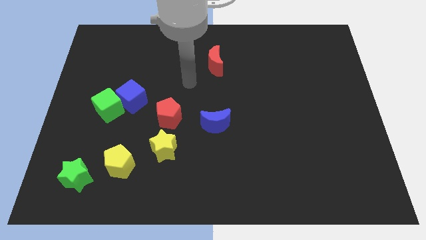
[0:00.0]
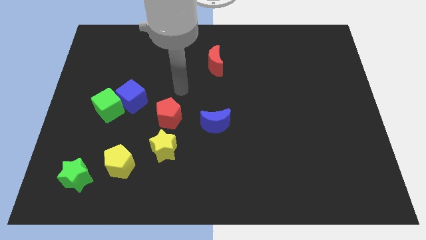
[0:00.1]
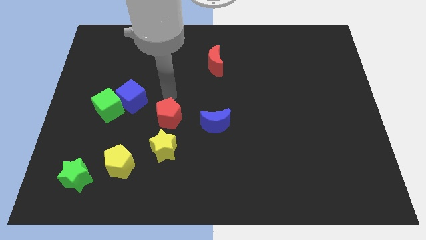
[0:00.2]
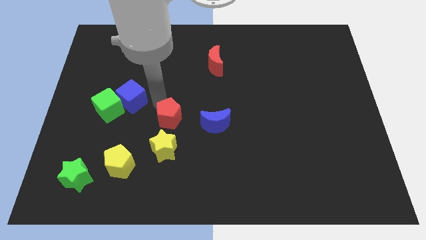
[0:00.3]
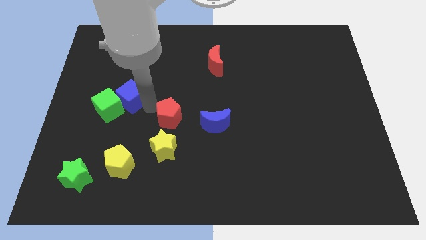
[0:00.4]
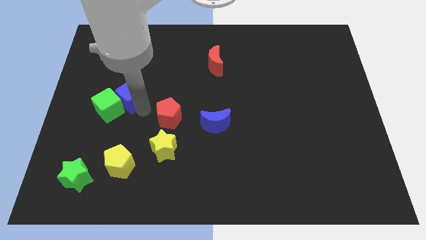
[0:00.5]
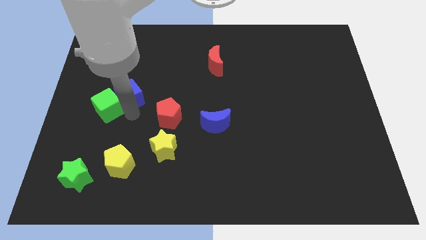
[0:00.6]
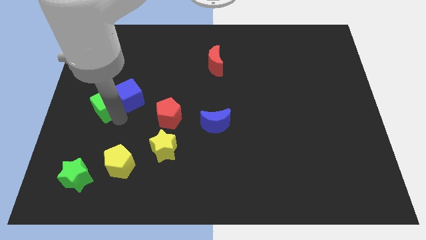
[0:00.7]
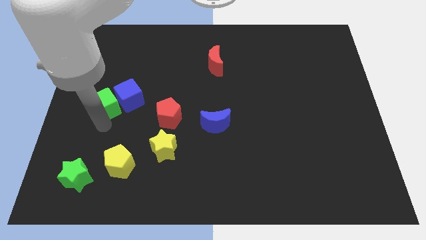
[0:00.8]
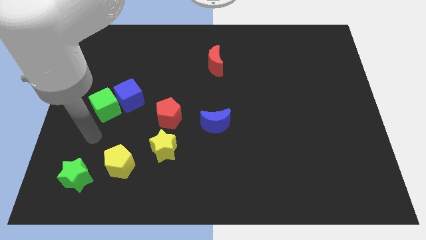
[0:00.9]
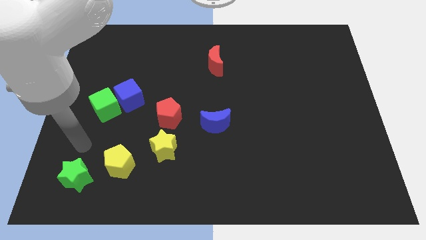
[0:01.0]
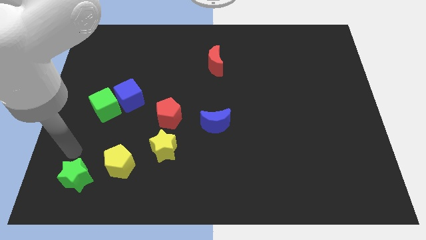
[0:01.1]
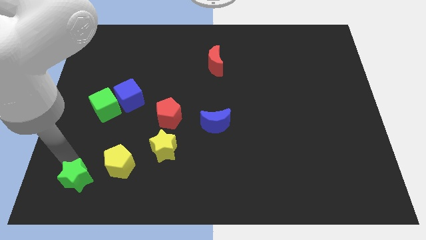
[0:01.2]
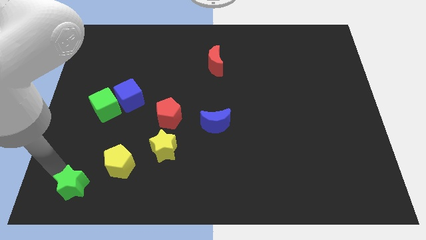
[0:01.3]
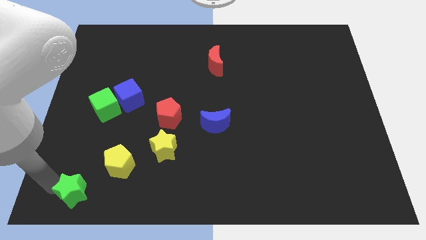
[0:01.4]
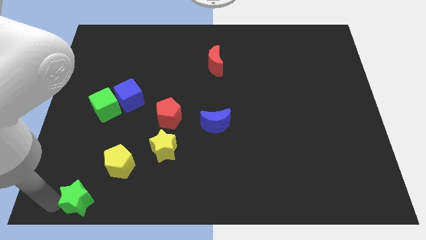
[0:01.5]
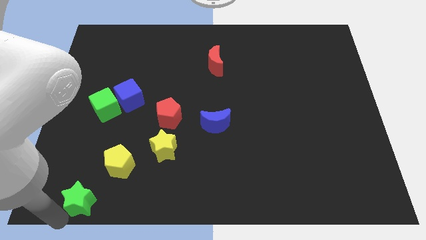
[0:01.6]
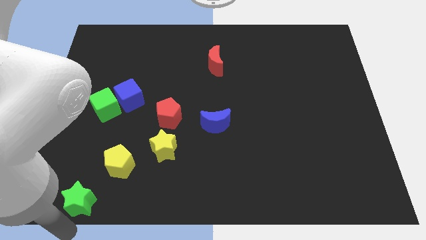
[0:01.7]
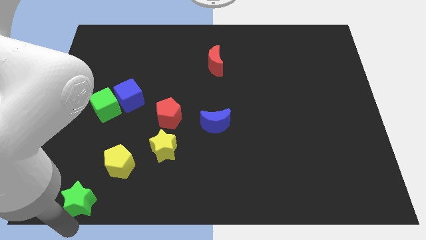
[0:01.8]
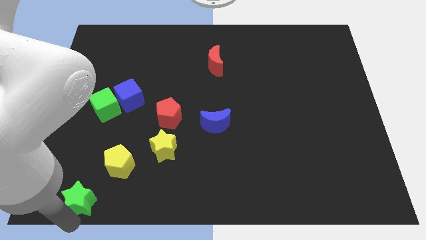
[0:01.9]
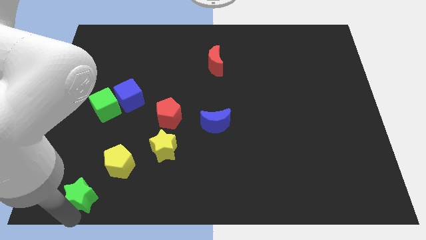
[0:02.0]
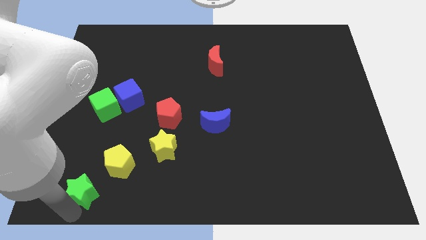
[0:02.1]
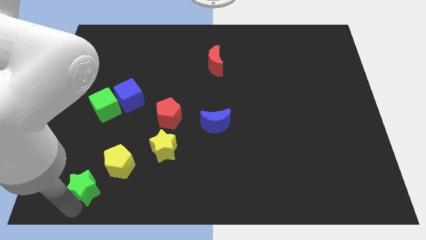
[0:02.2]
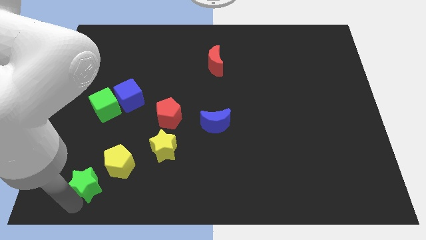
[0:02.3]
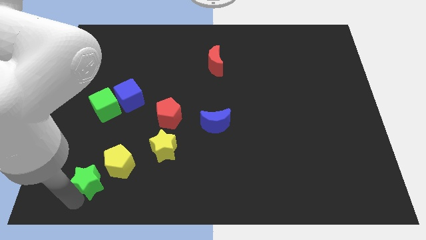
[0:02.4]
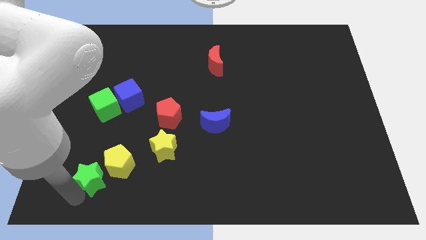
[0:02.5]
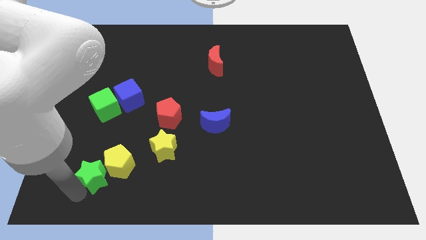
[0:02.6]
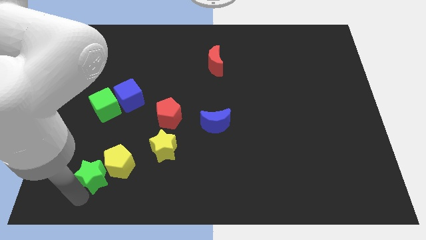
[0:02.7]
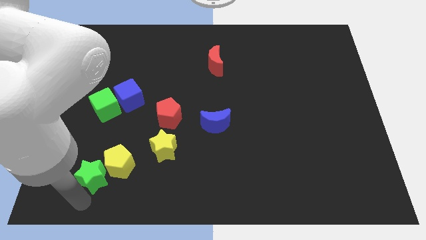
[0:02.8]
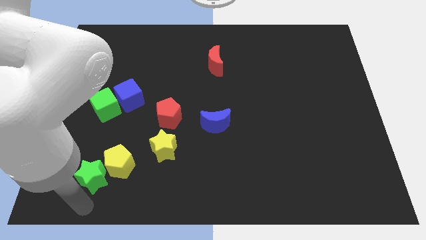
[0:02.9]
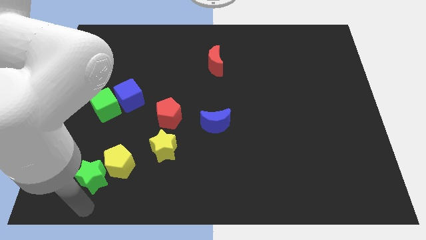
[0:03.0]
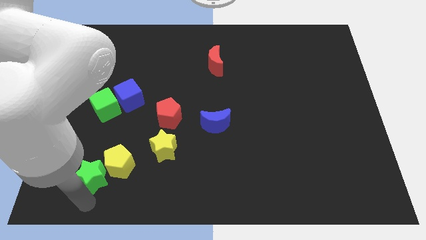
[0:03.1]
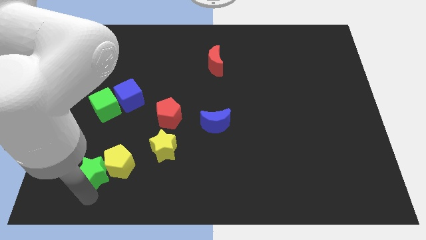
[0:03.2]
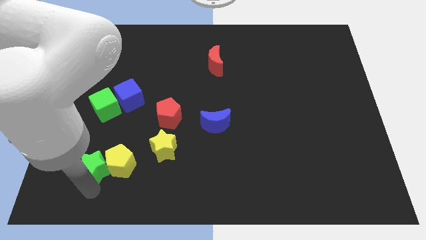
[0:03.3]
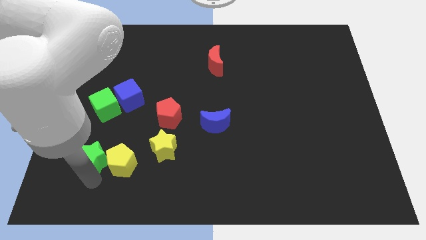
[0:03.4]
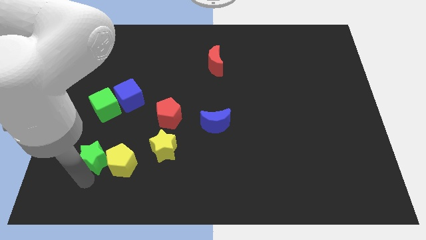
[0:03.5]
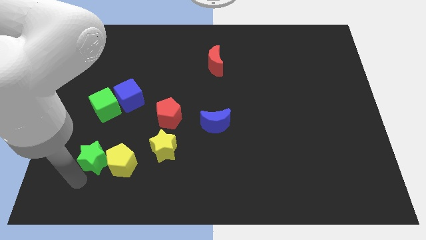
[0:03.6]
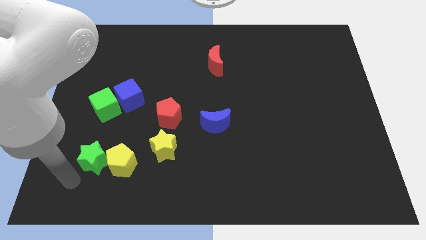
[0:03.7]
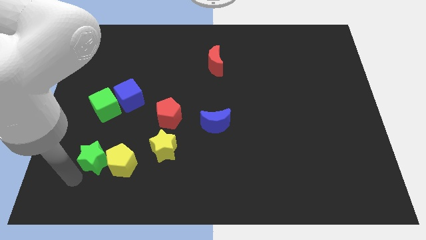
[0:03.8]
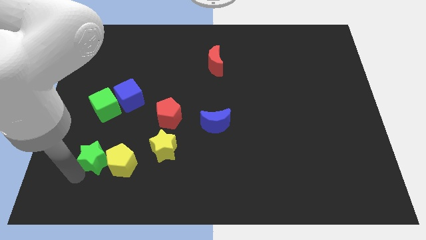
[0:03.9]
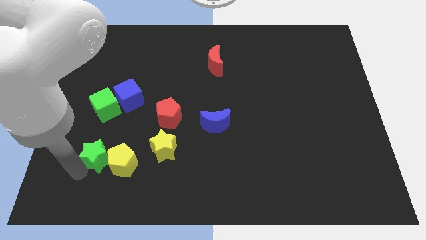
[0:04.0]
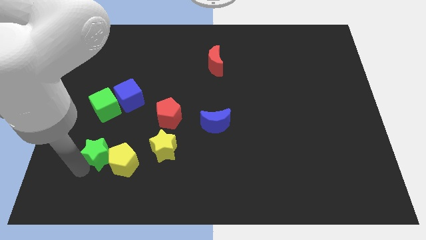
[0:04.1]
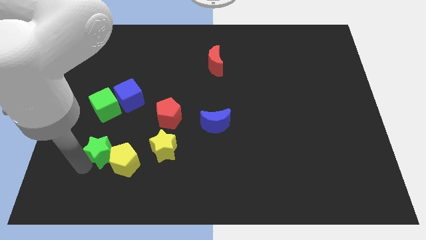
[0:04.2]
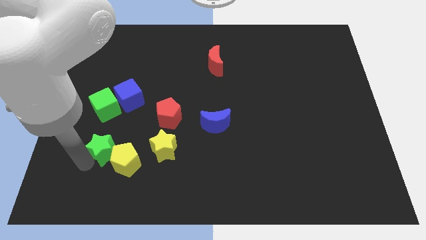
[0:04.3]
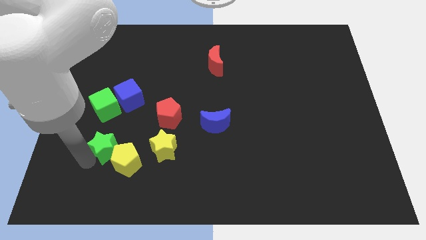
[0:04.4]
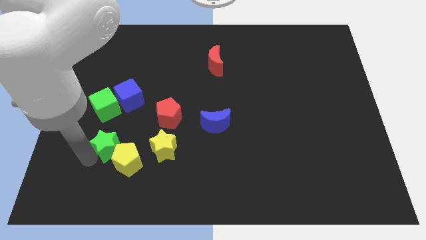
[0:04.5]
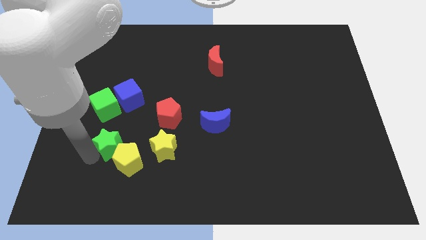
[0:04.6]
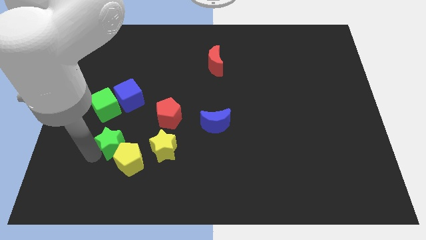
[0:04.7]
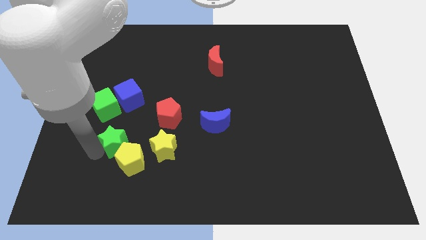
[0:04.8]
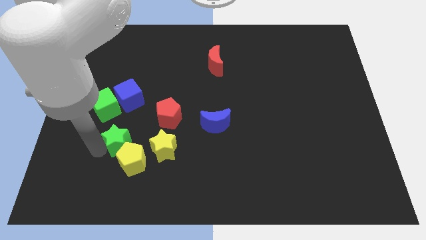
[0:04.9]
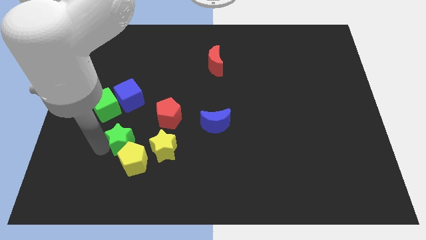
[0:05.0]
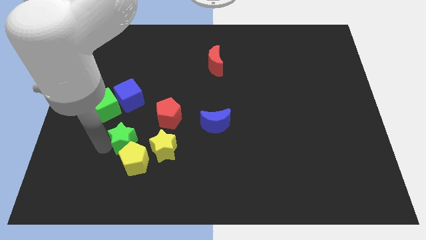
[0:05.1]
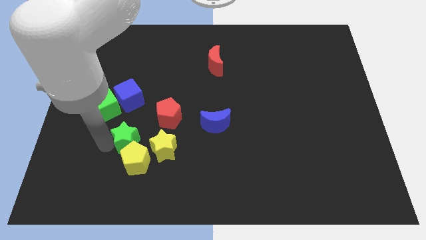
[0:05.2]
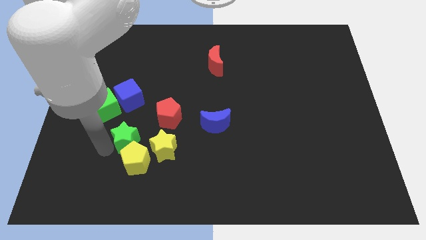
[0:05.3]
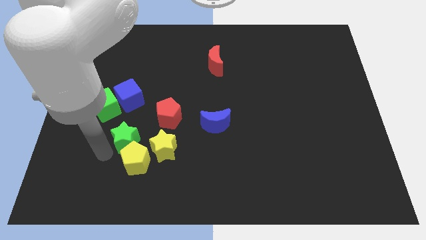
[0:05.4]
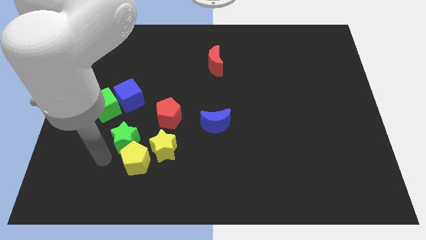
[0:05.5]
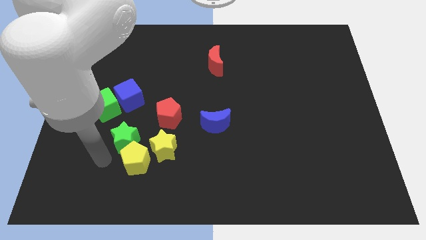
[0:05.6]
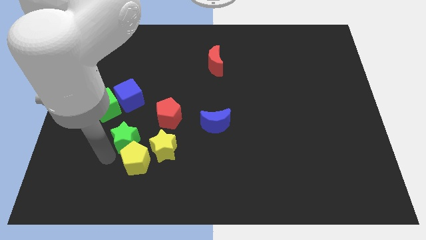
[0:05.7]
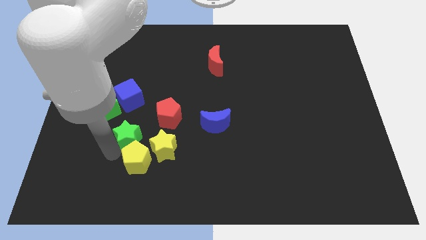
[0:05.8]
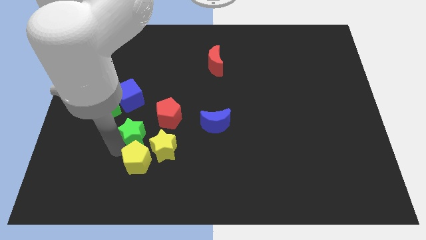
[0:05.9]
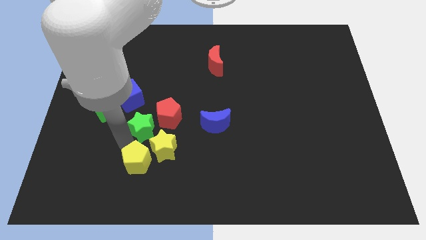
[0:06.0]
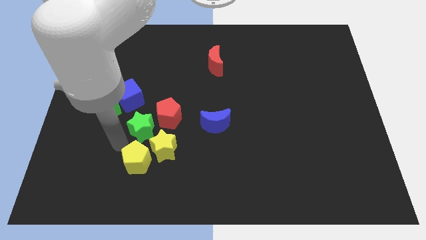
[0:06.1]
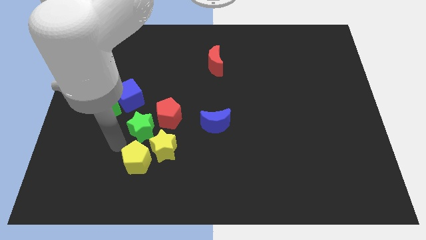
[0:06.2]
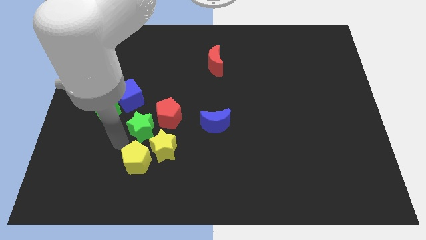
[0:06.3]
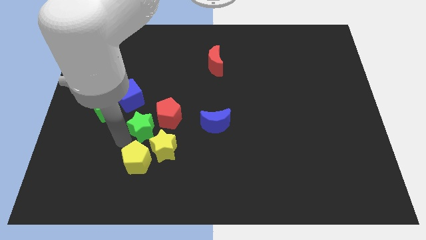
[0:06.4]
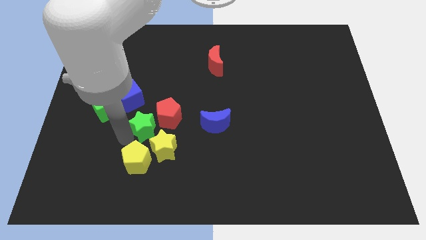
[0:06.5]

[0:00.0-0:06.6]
push the green star close to the red pentagon

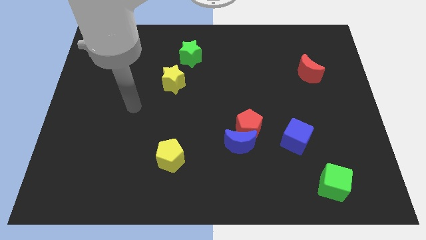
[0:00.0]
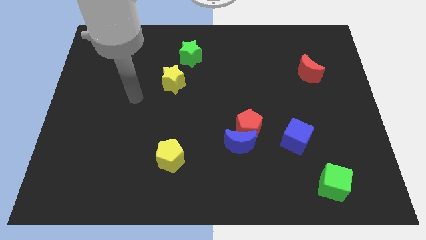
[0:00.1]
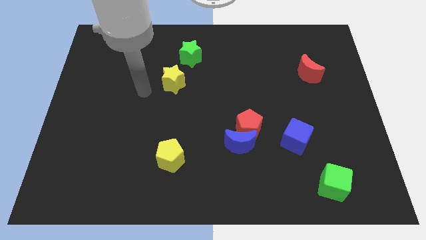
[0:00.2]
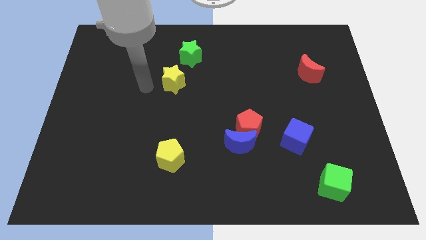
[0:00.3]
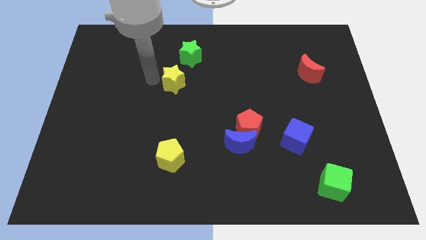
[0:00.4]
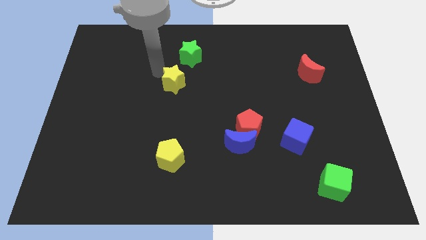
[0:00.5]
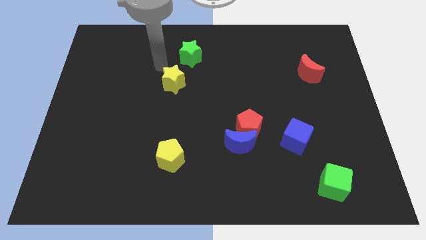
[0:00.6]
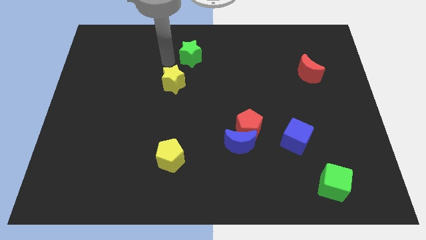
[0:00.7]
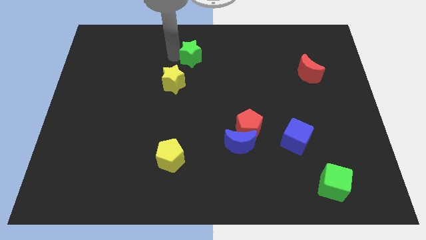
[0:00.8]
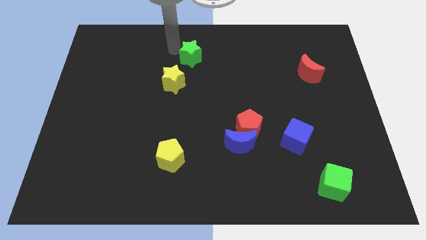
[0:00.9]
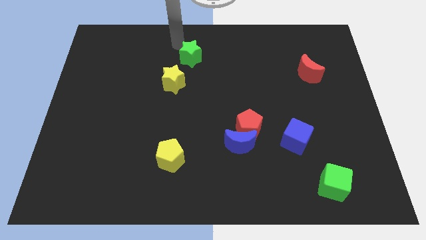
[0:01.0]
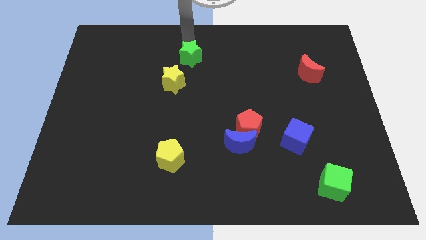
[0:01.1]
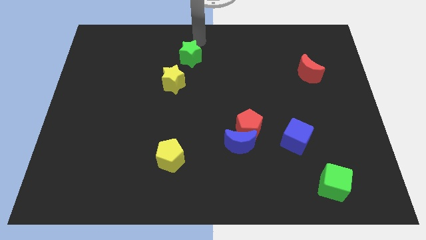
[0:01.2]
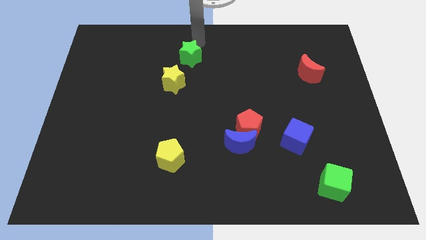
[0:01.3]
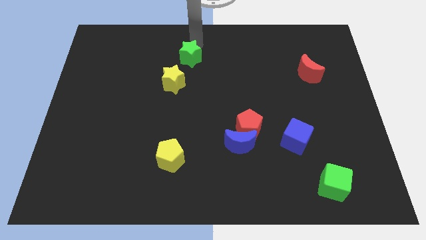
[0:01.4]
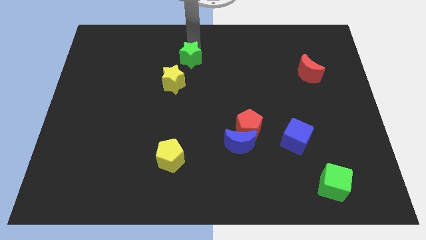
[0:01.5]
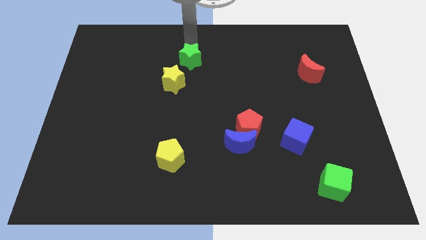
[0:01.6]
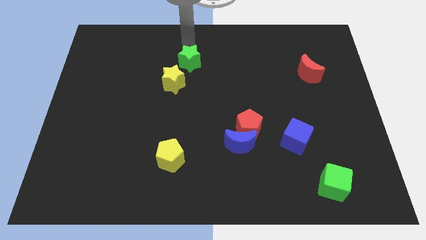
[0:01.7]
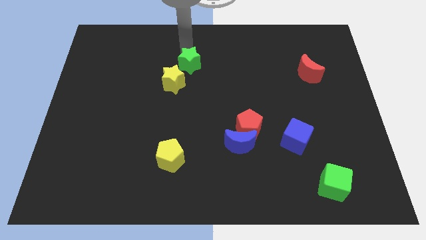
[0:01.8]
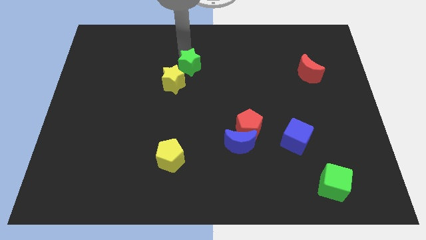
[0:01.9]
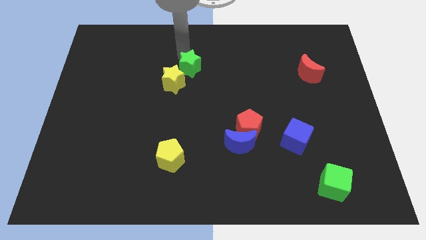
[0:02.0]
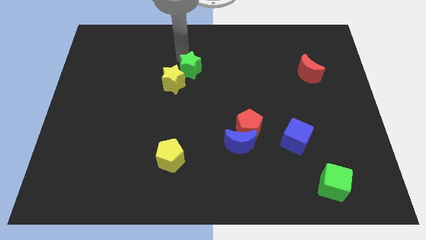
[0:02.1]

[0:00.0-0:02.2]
put the green star next to the yellow star
